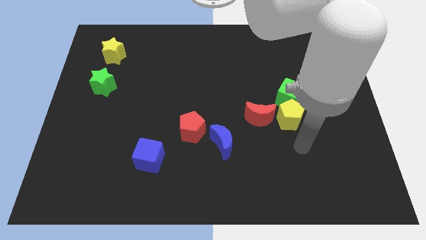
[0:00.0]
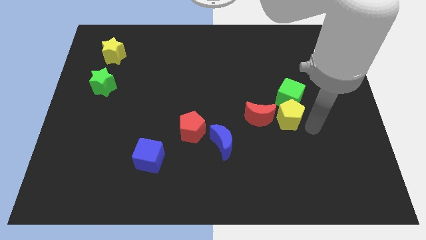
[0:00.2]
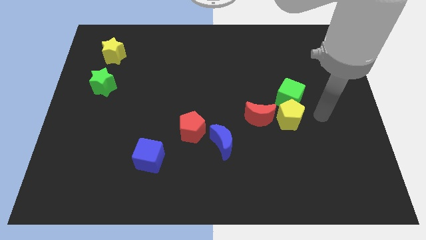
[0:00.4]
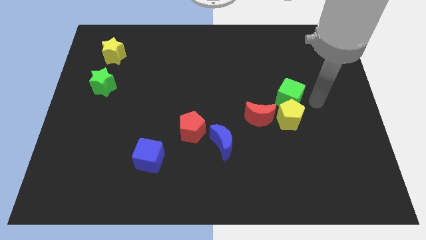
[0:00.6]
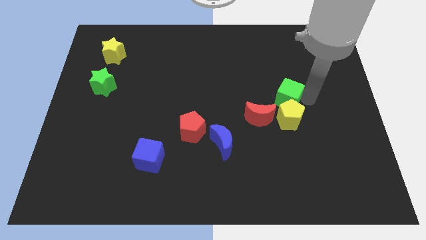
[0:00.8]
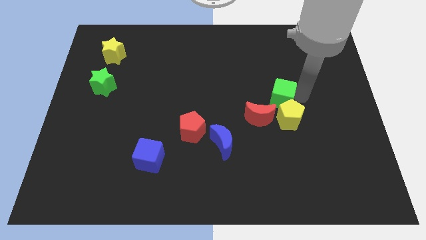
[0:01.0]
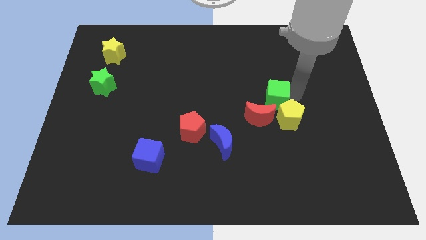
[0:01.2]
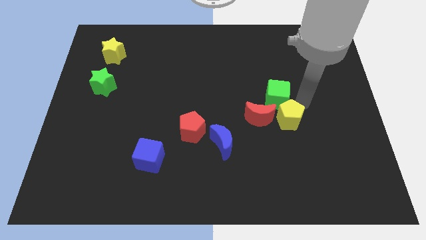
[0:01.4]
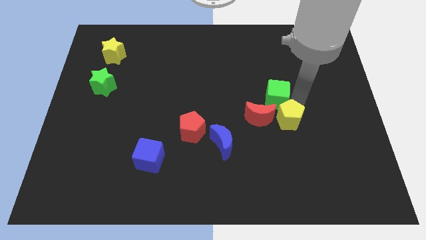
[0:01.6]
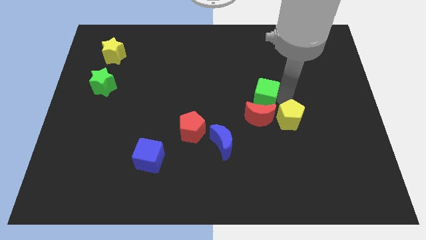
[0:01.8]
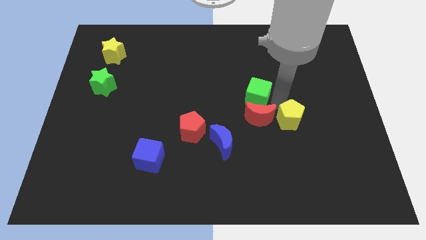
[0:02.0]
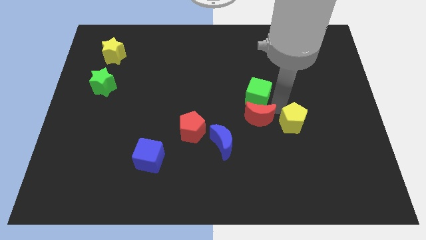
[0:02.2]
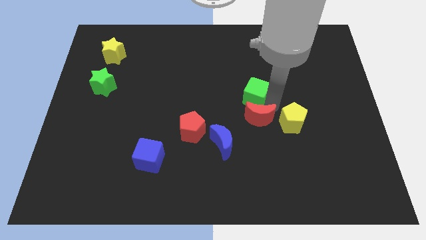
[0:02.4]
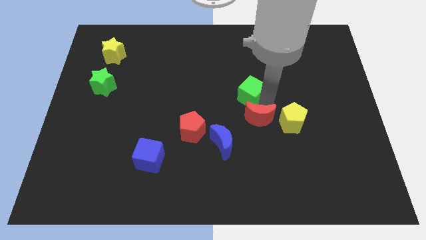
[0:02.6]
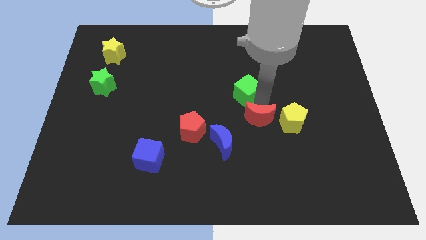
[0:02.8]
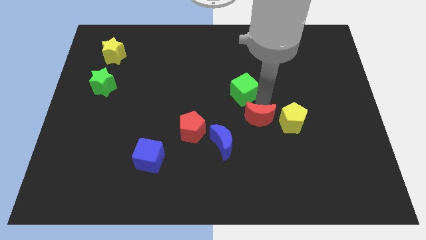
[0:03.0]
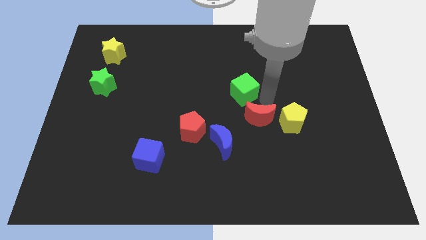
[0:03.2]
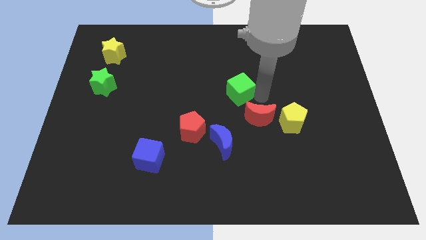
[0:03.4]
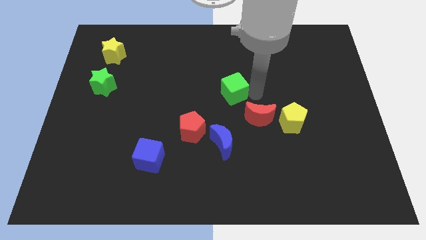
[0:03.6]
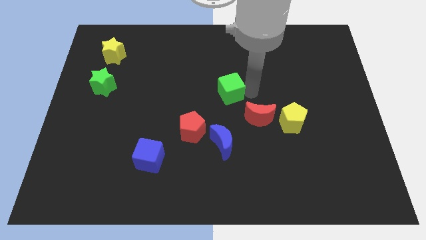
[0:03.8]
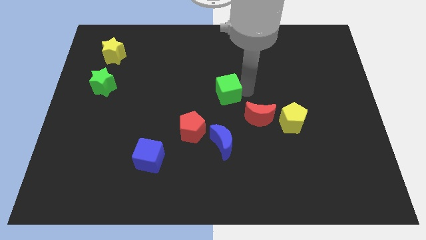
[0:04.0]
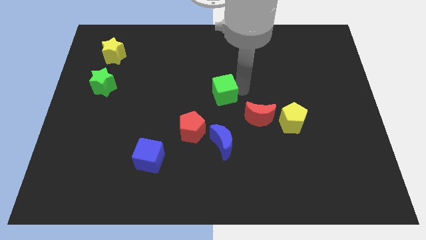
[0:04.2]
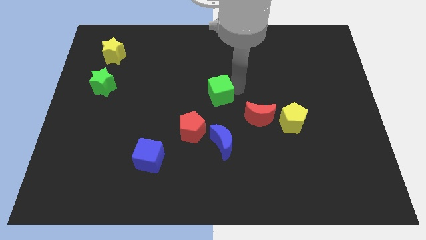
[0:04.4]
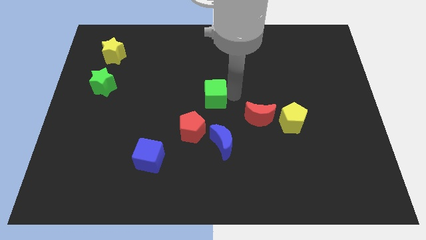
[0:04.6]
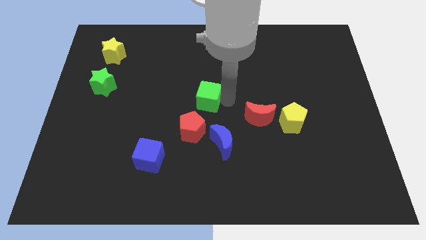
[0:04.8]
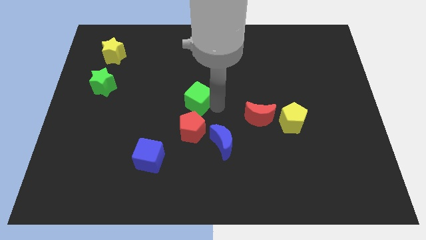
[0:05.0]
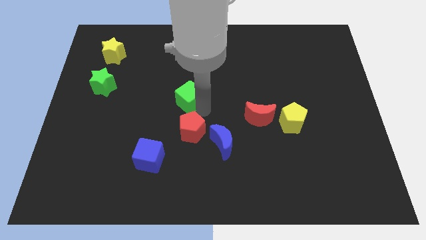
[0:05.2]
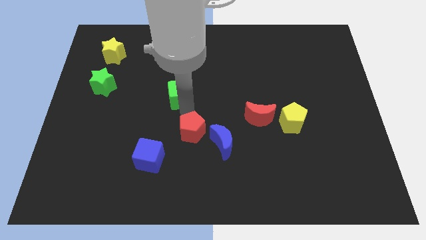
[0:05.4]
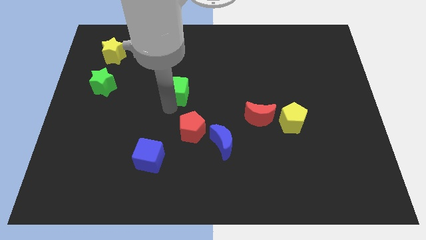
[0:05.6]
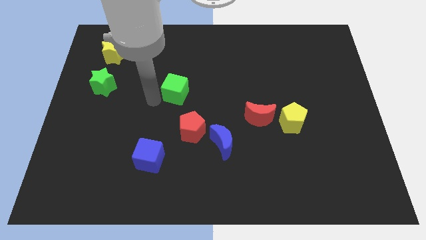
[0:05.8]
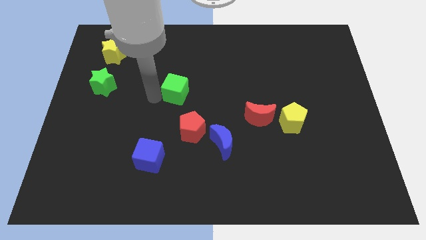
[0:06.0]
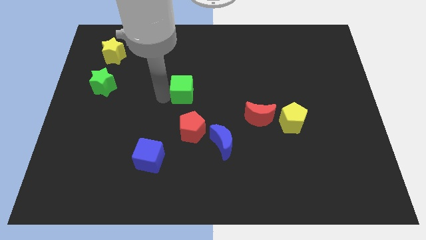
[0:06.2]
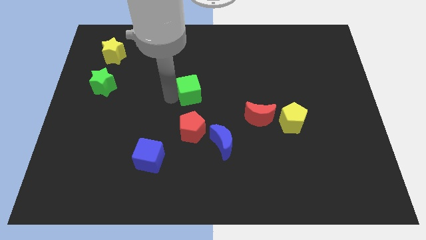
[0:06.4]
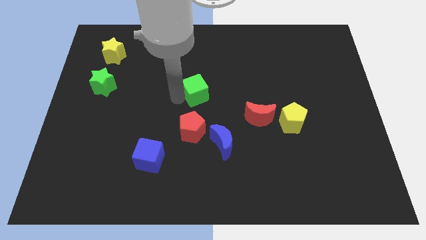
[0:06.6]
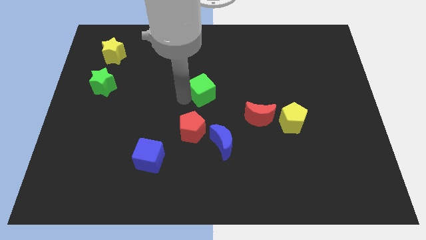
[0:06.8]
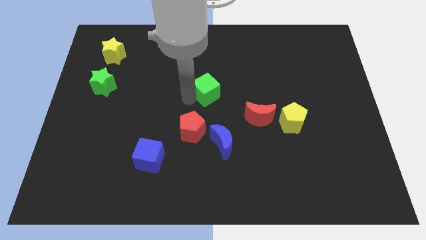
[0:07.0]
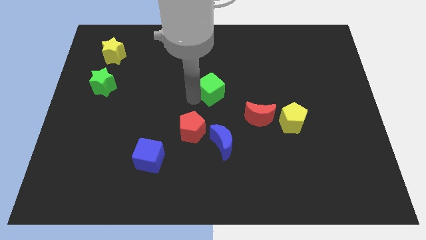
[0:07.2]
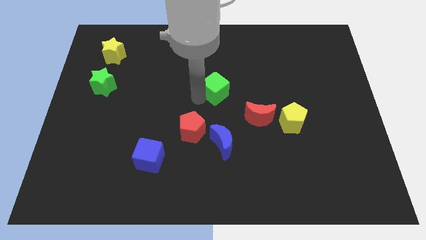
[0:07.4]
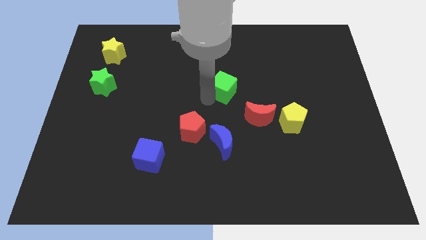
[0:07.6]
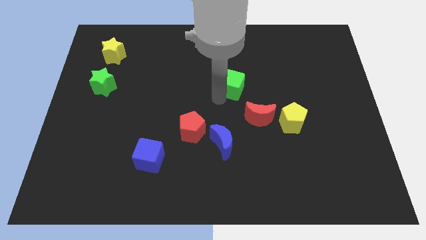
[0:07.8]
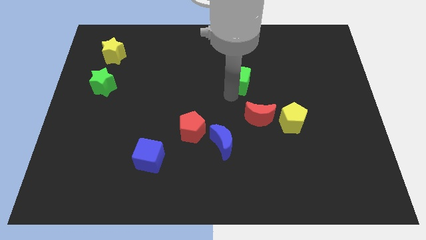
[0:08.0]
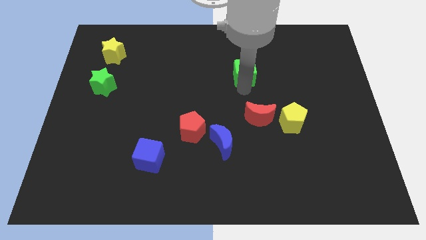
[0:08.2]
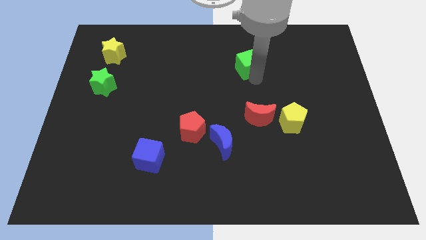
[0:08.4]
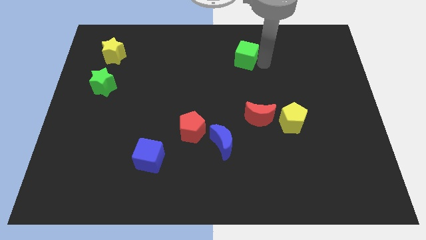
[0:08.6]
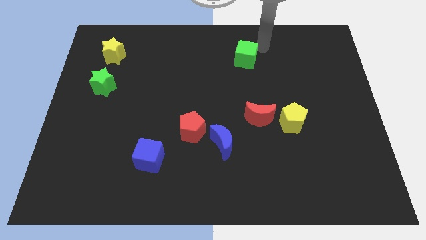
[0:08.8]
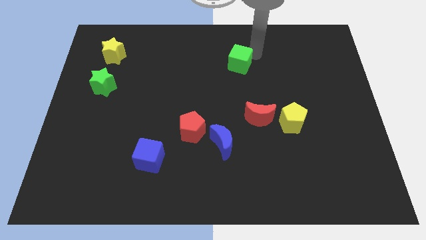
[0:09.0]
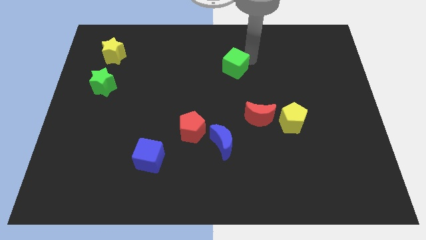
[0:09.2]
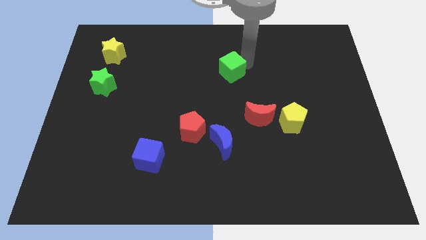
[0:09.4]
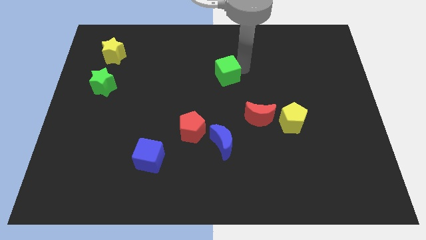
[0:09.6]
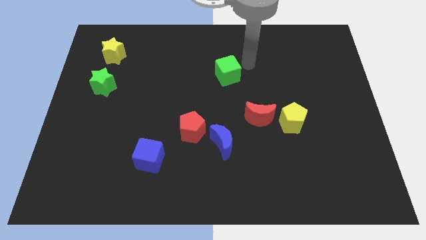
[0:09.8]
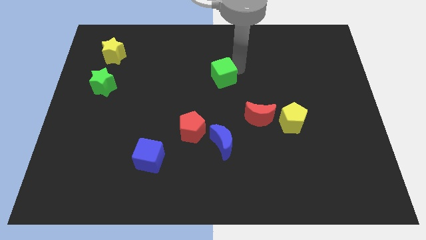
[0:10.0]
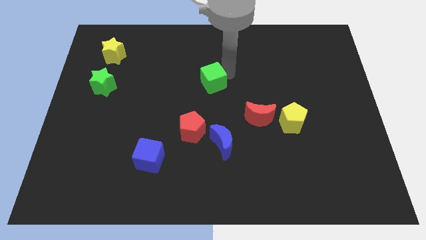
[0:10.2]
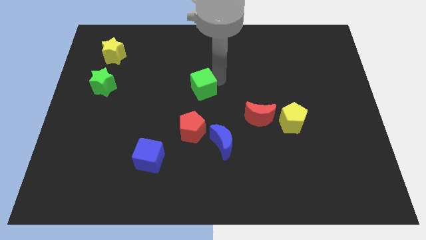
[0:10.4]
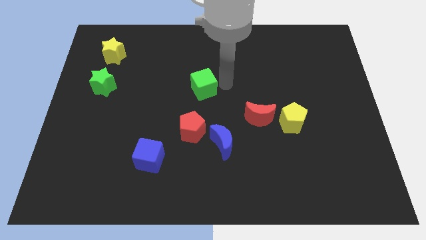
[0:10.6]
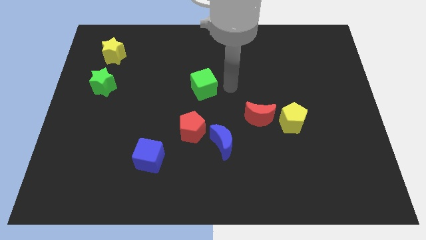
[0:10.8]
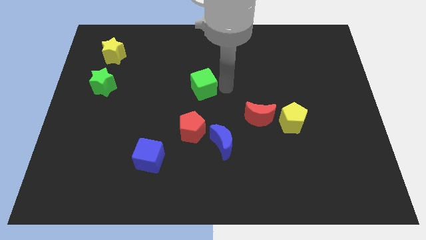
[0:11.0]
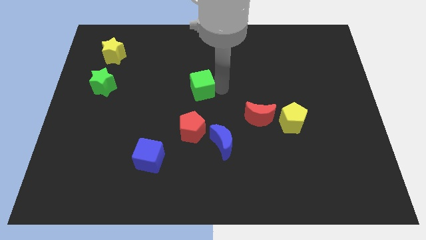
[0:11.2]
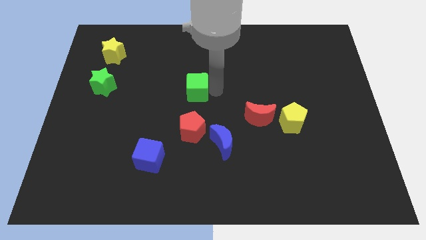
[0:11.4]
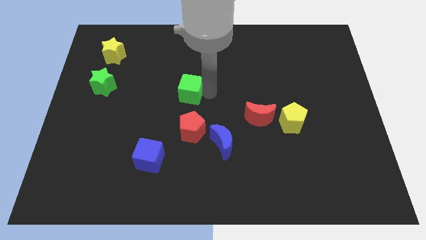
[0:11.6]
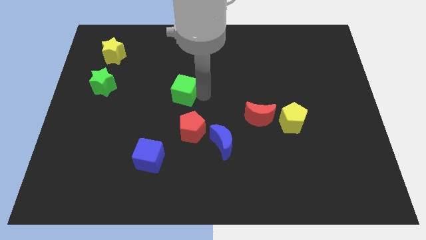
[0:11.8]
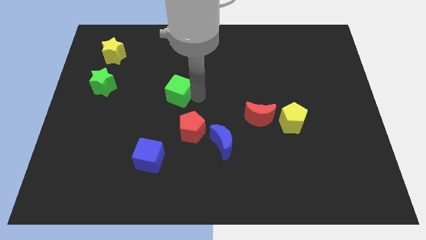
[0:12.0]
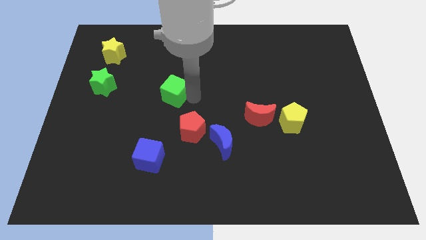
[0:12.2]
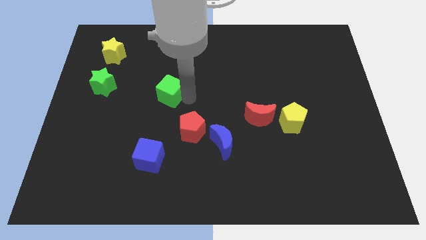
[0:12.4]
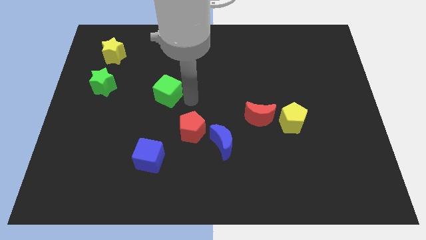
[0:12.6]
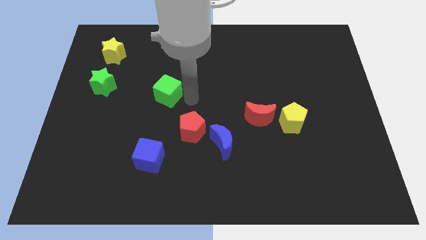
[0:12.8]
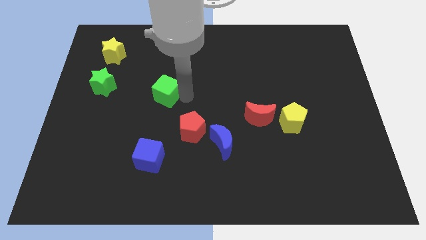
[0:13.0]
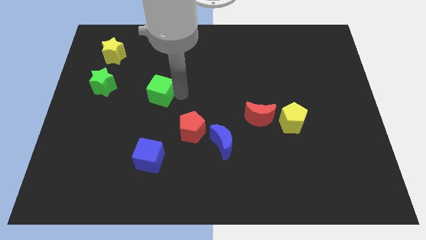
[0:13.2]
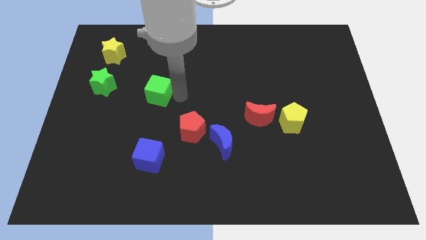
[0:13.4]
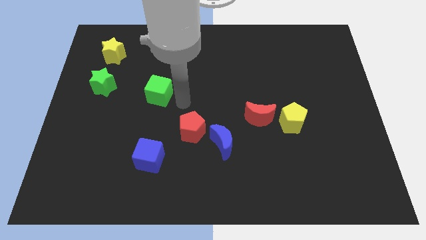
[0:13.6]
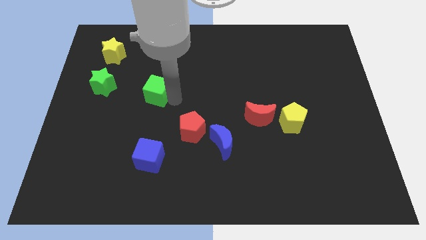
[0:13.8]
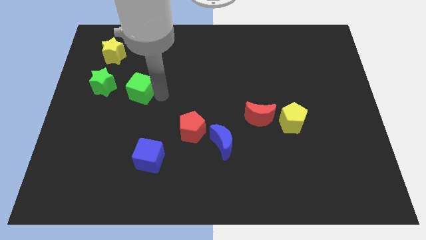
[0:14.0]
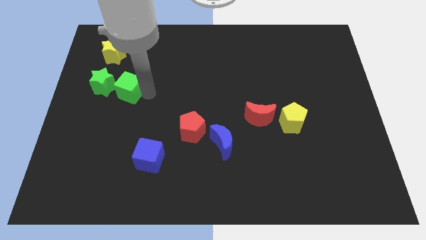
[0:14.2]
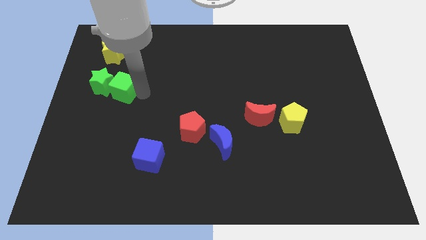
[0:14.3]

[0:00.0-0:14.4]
put the green cube to the green star
